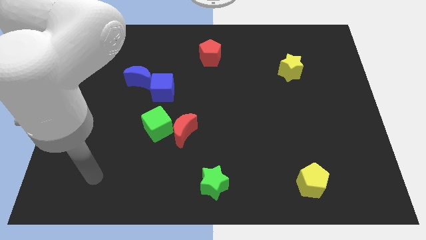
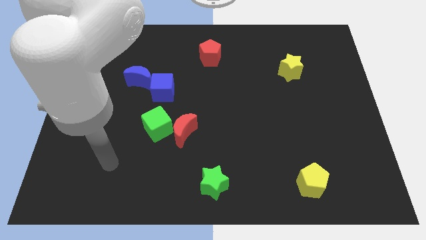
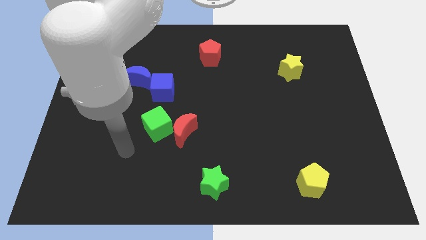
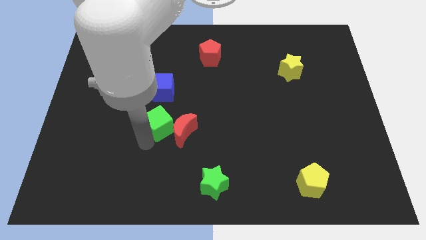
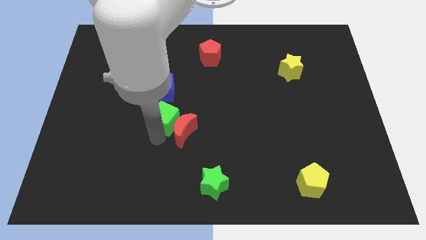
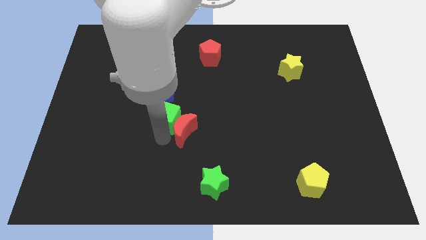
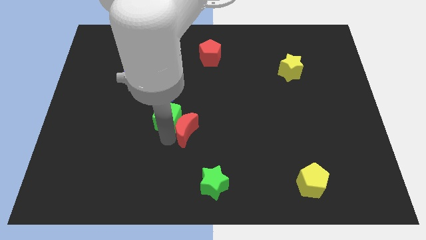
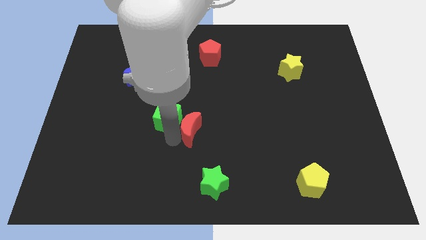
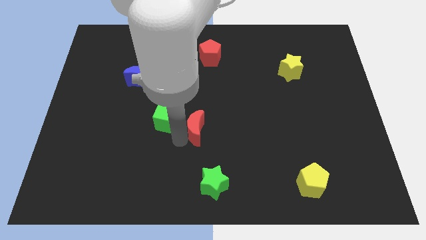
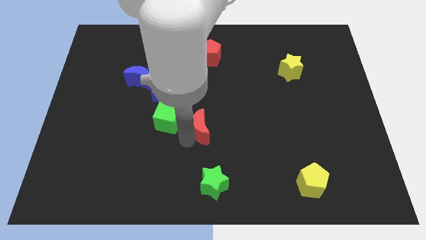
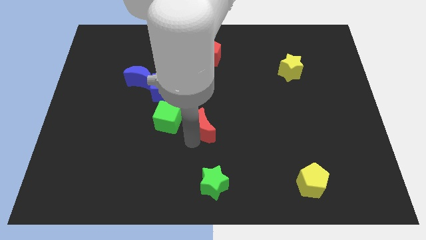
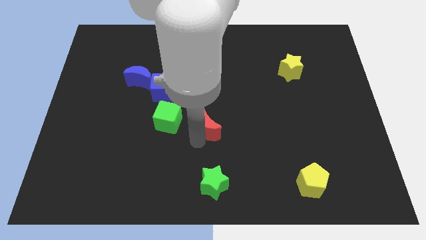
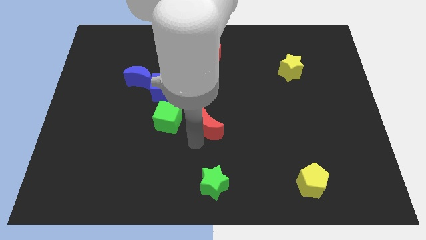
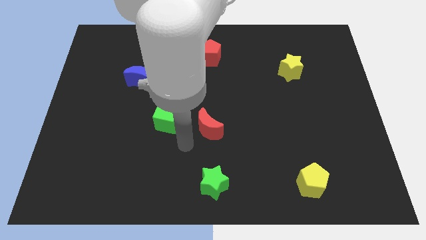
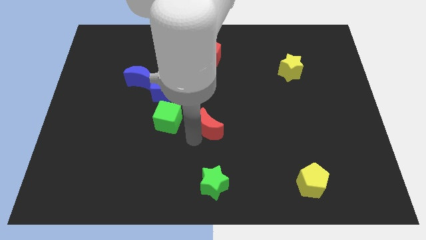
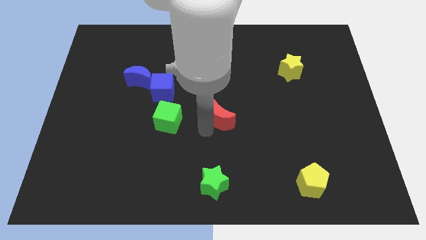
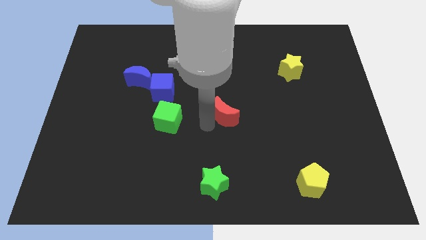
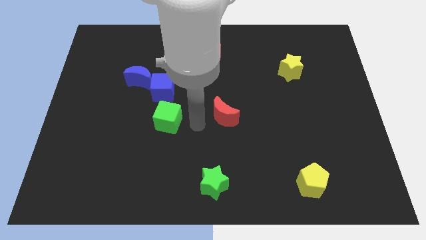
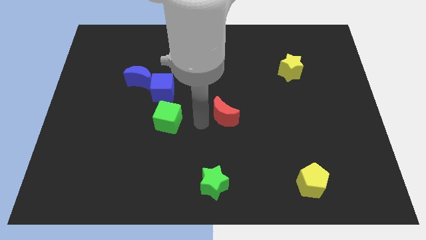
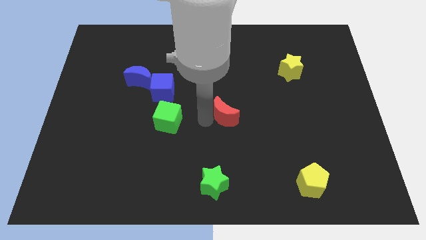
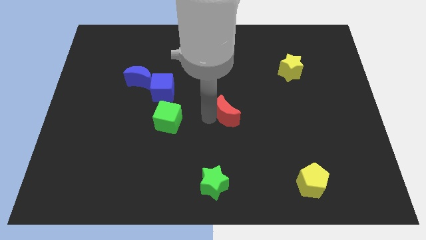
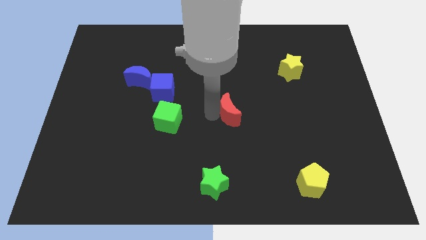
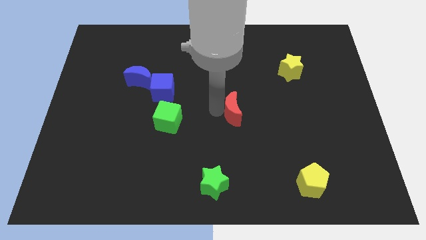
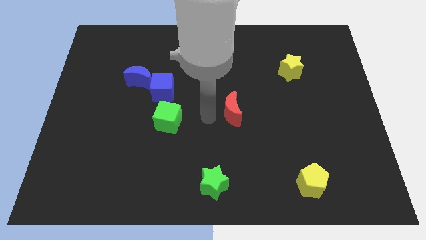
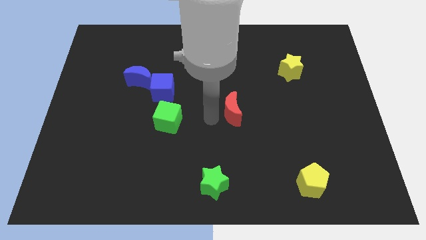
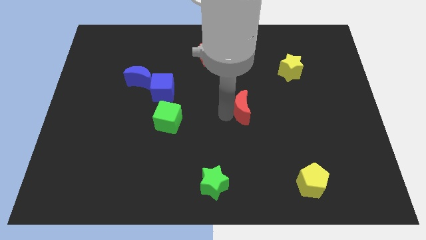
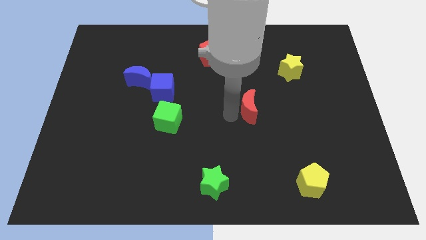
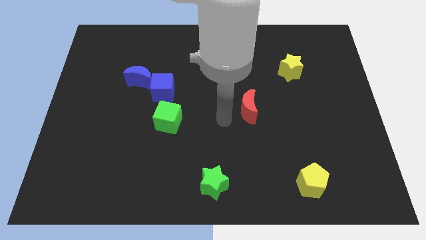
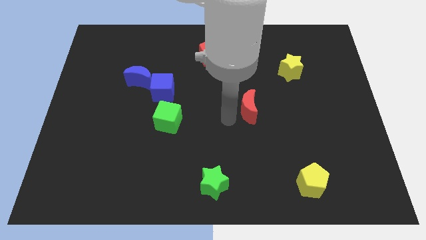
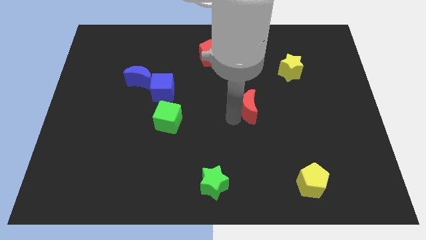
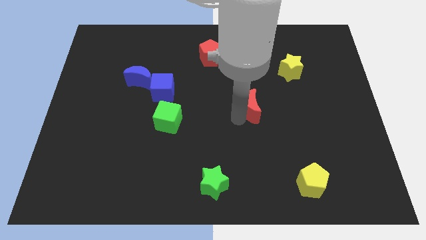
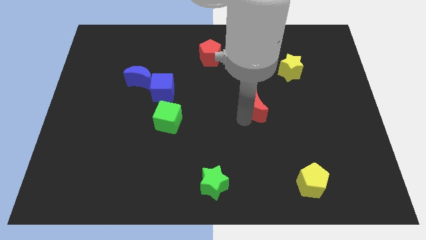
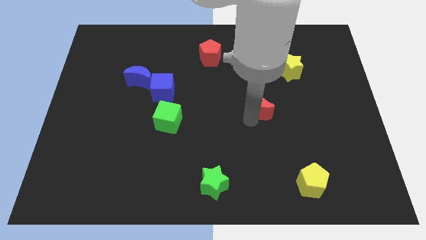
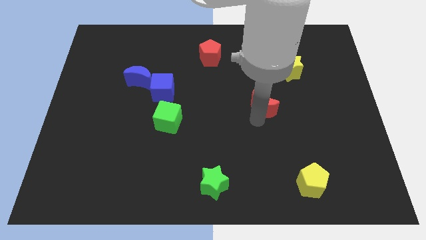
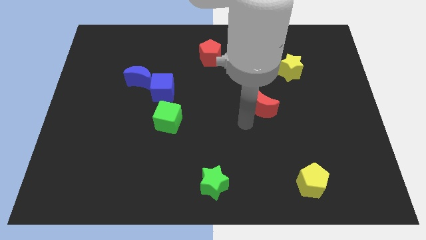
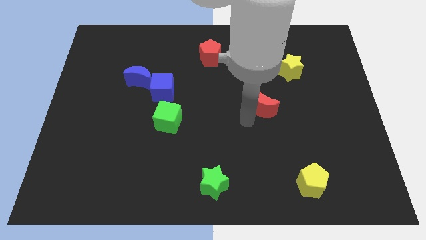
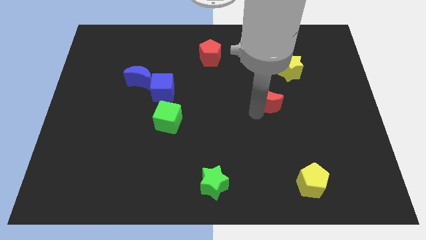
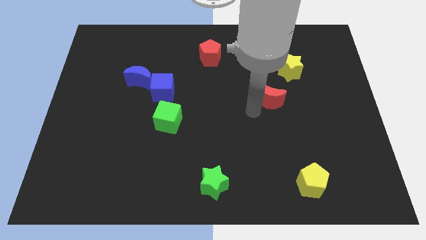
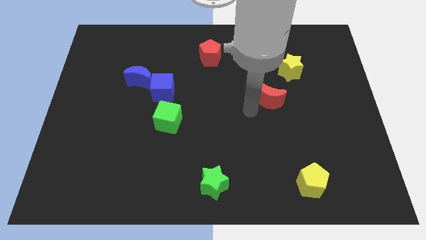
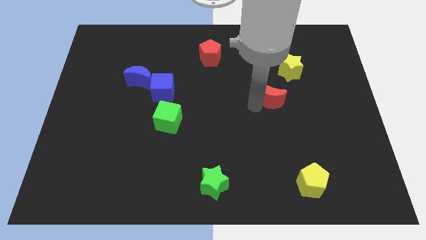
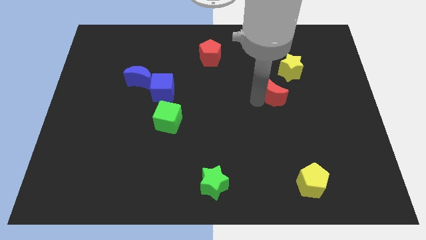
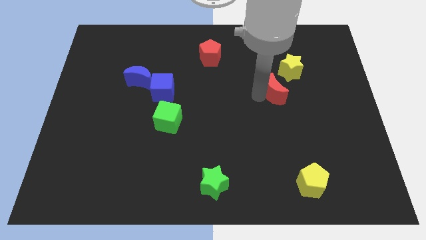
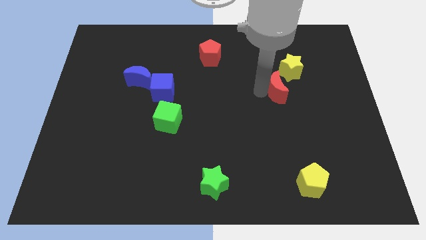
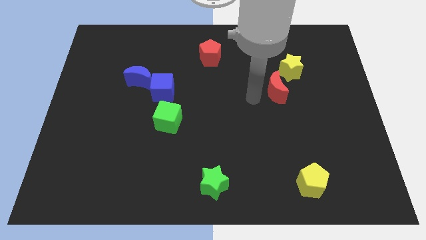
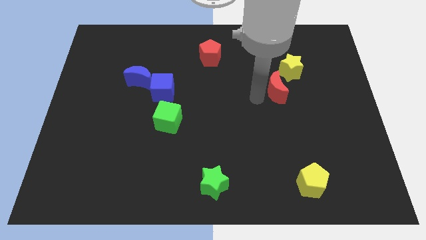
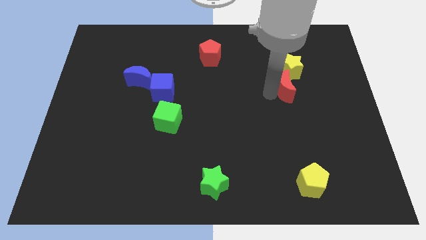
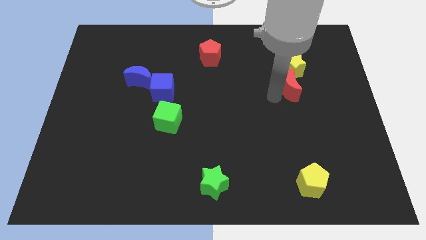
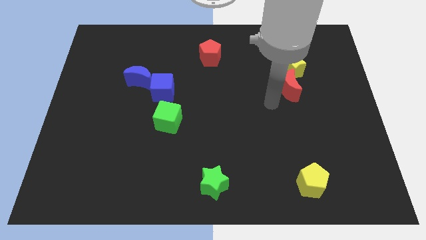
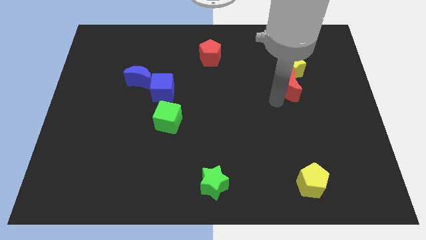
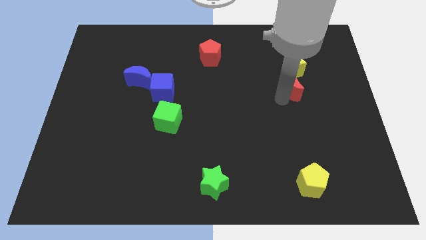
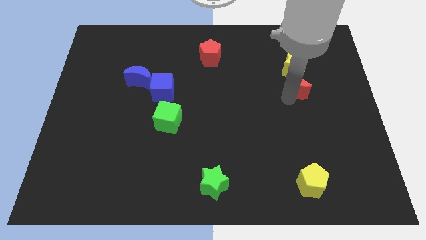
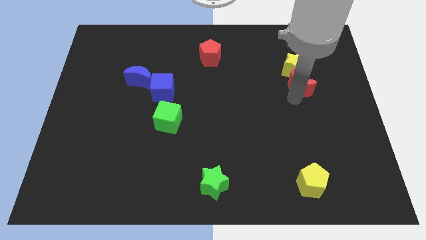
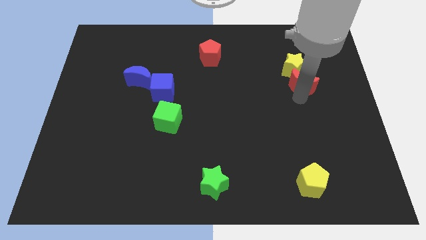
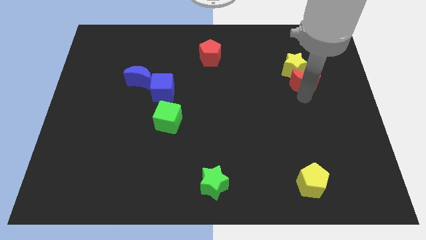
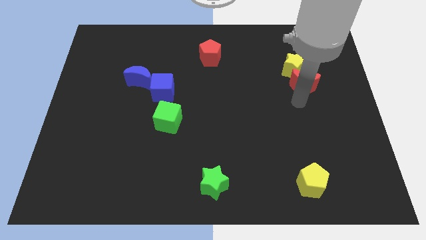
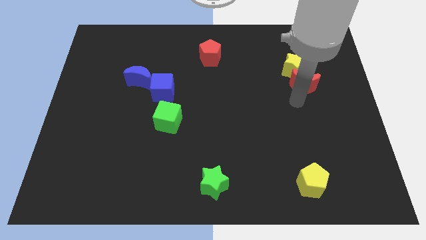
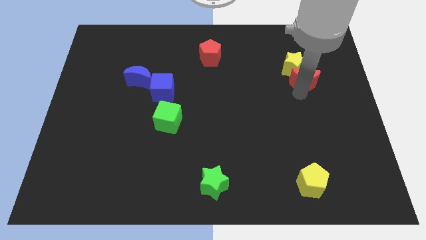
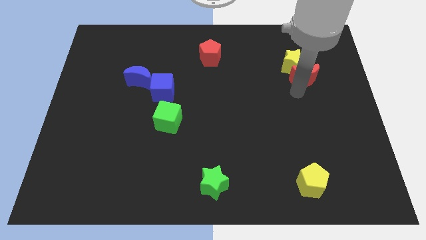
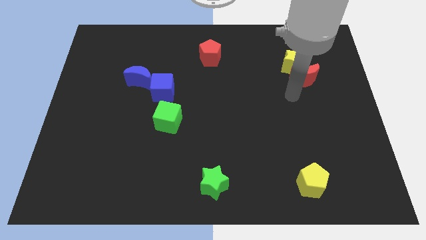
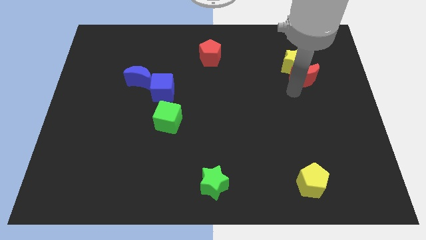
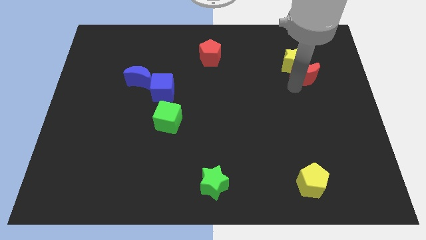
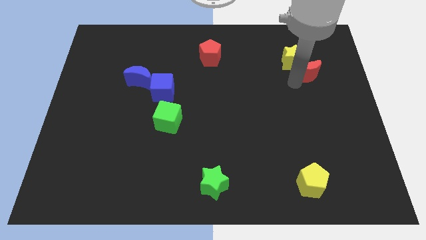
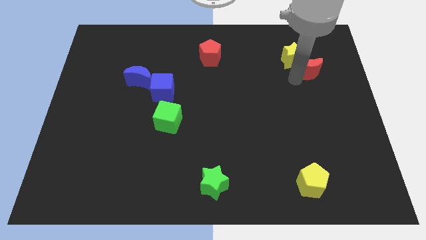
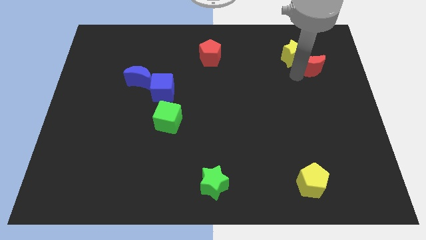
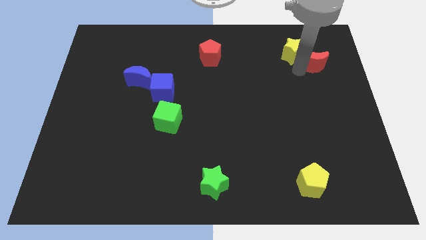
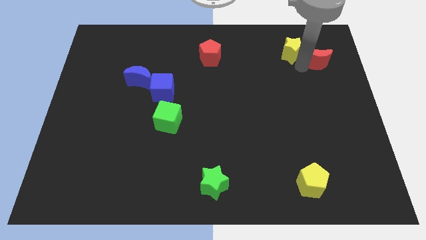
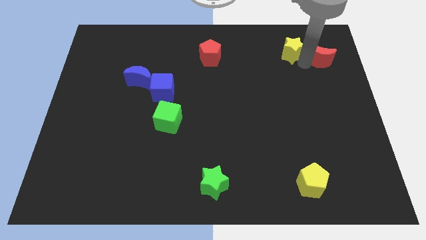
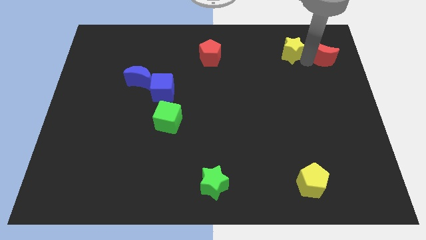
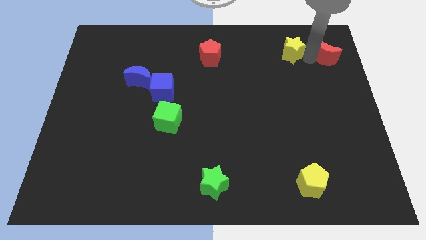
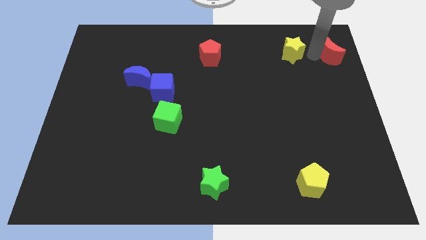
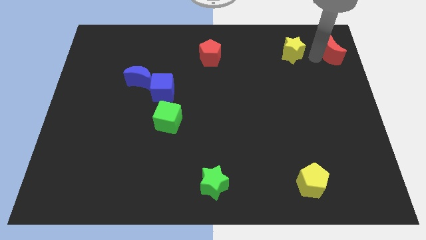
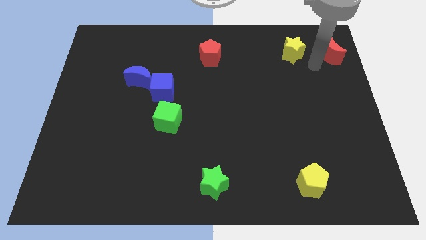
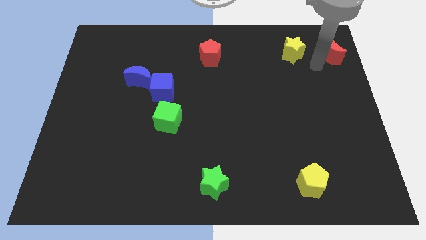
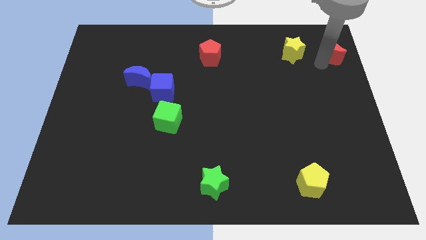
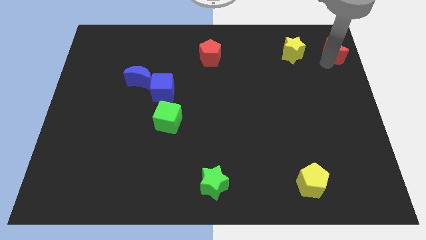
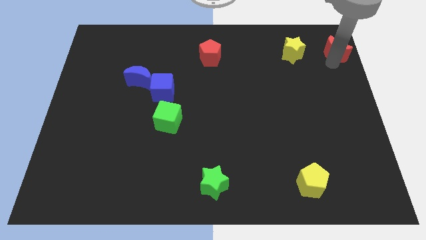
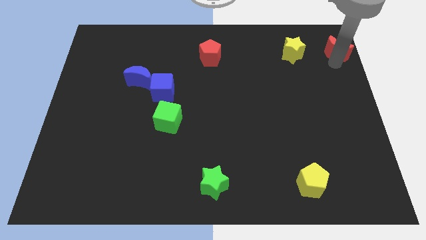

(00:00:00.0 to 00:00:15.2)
move the red moon to the top right corner
